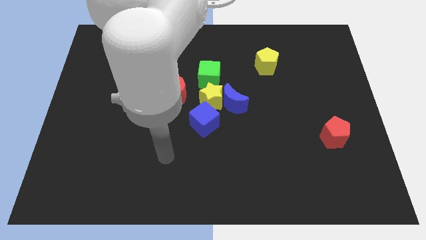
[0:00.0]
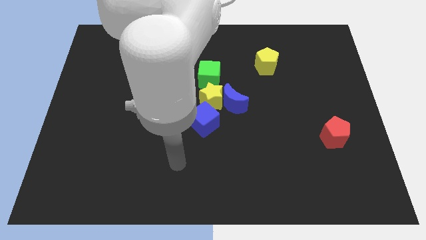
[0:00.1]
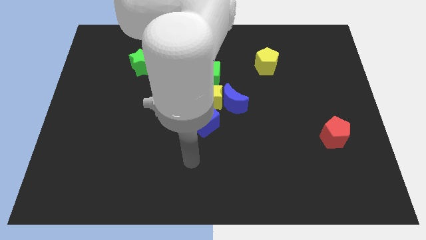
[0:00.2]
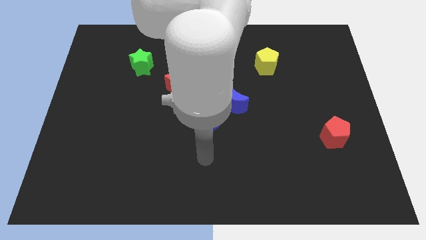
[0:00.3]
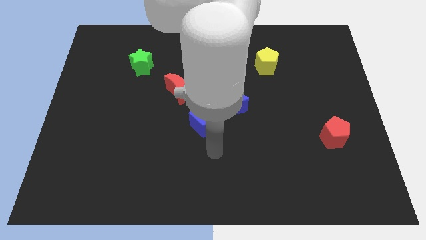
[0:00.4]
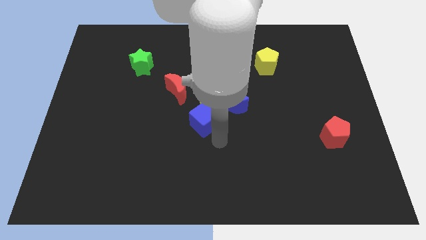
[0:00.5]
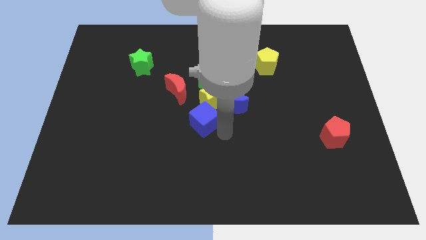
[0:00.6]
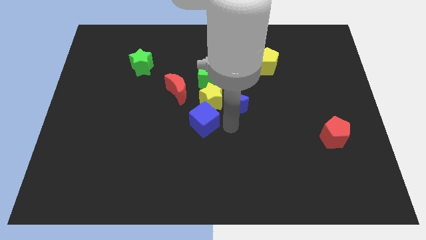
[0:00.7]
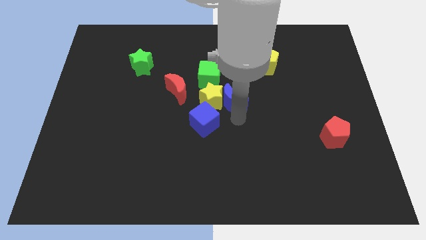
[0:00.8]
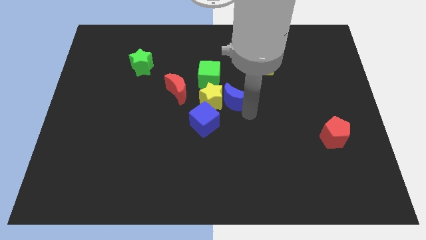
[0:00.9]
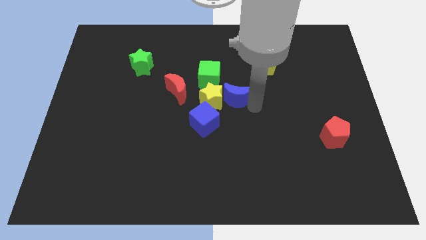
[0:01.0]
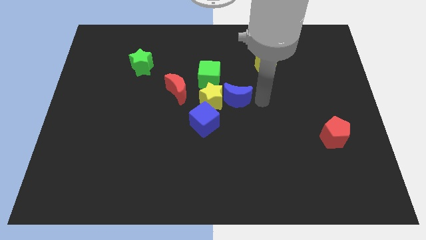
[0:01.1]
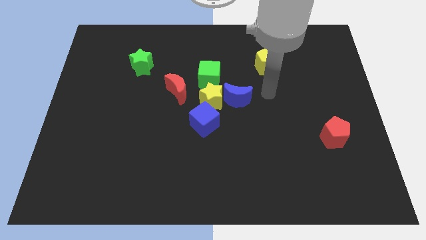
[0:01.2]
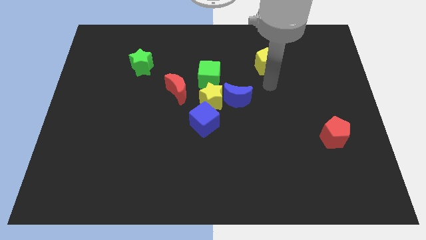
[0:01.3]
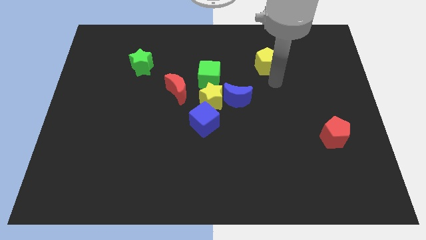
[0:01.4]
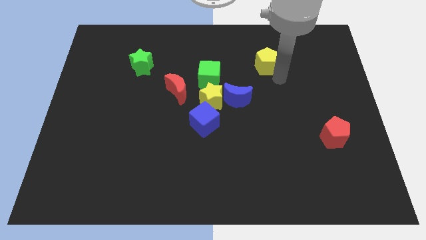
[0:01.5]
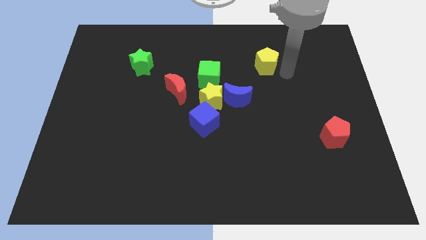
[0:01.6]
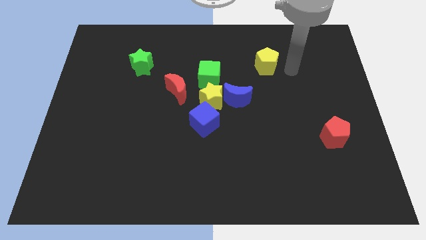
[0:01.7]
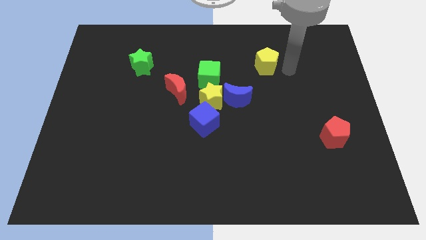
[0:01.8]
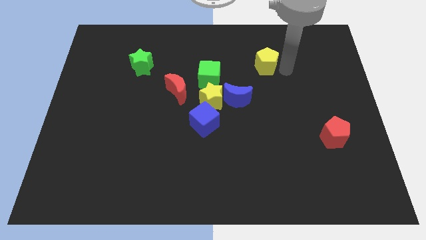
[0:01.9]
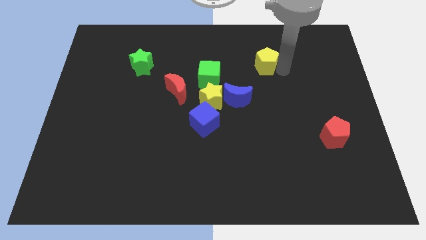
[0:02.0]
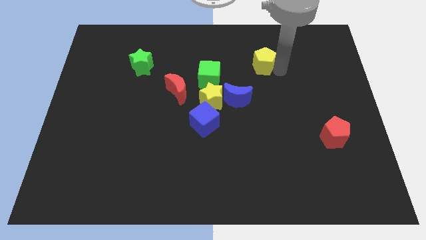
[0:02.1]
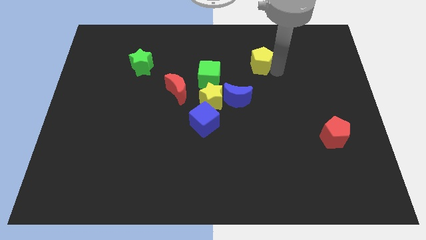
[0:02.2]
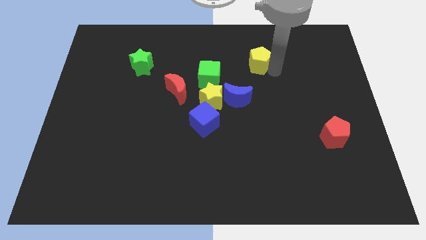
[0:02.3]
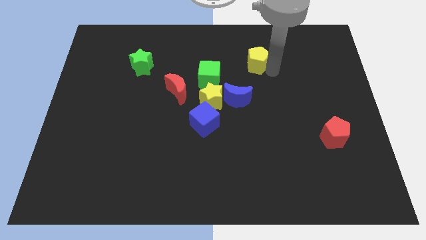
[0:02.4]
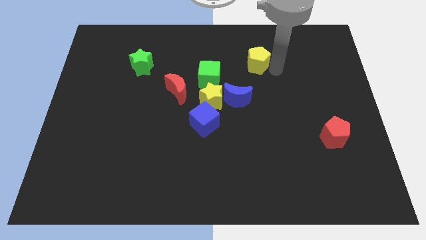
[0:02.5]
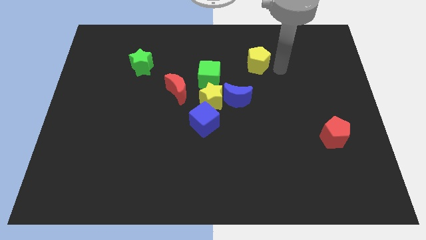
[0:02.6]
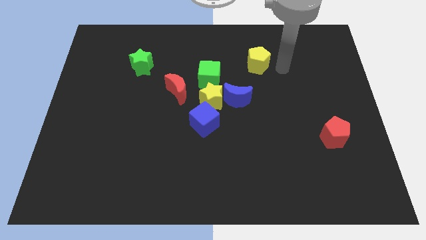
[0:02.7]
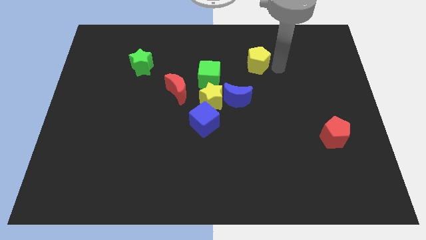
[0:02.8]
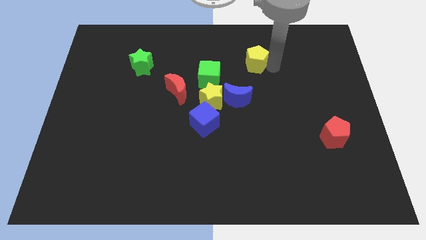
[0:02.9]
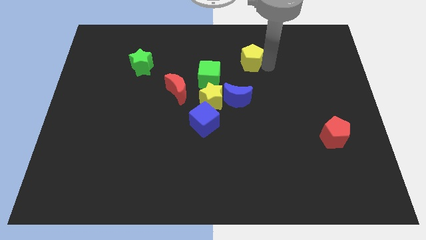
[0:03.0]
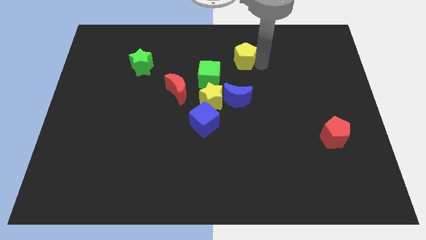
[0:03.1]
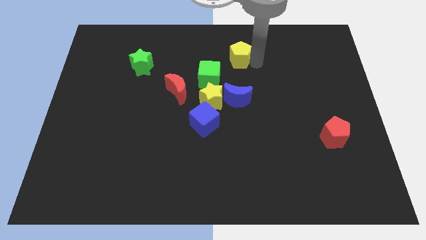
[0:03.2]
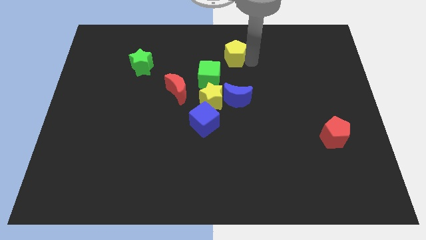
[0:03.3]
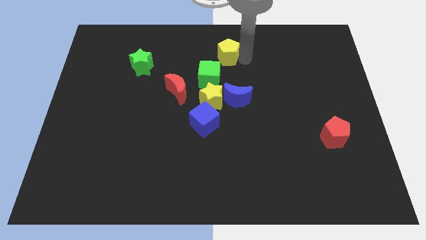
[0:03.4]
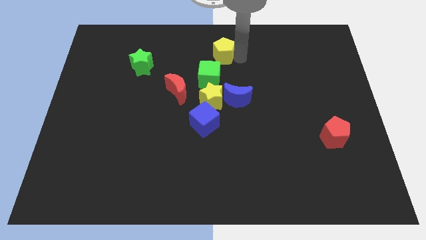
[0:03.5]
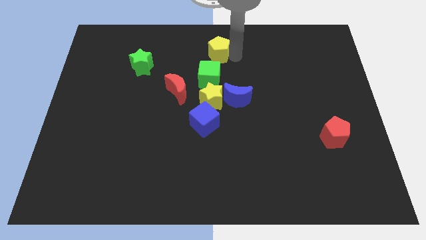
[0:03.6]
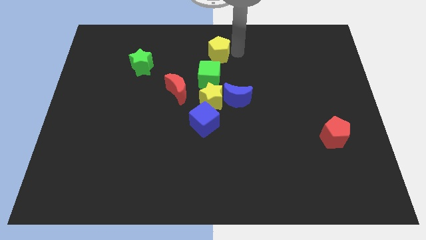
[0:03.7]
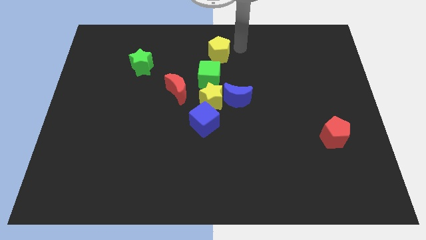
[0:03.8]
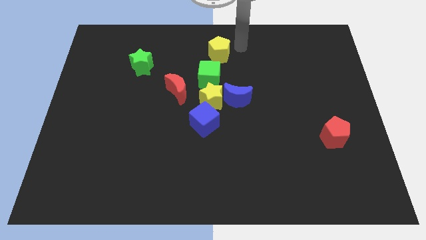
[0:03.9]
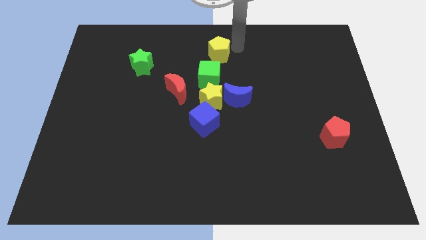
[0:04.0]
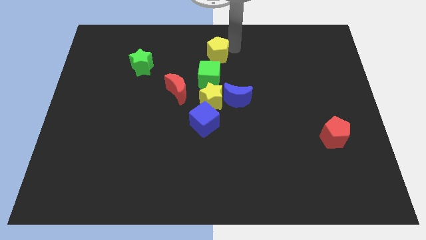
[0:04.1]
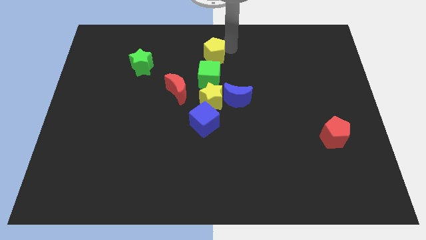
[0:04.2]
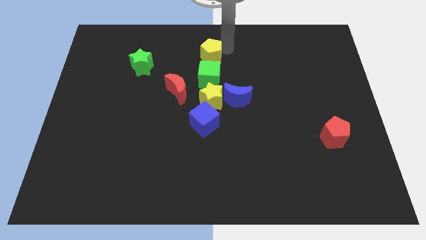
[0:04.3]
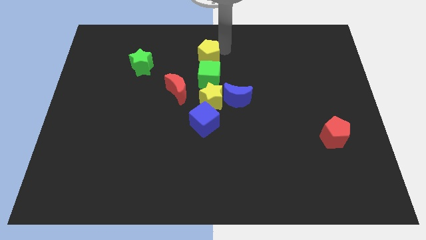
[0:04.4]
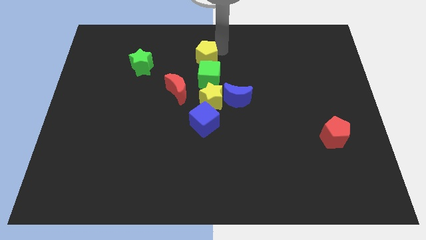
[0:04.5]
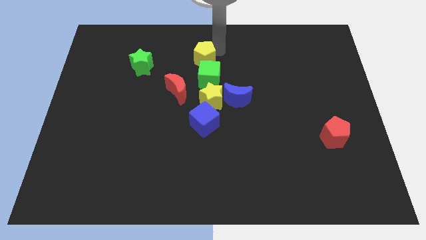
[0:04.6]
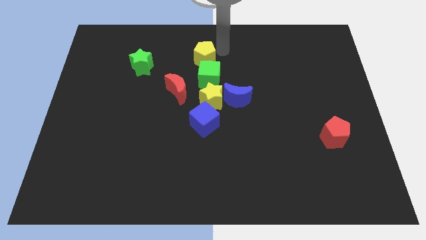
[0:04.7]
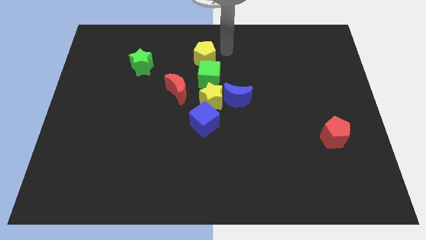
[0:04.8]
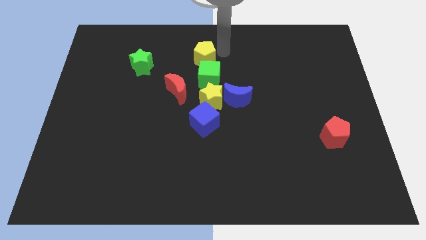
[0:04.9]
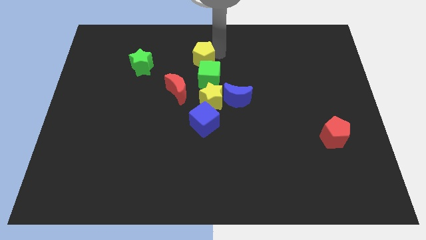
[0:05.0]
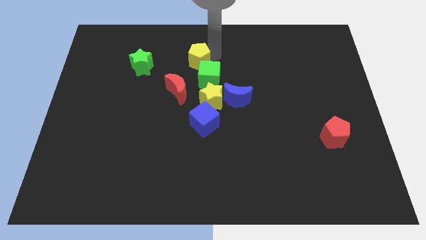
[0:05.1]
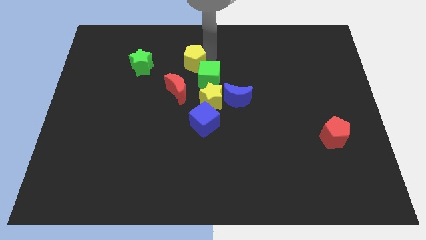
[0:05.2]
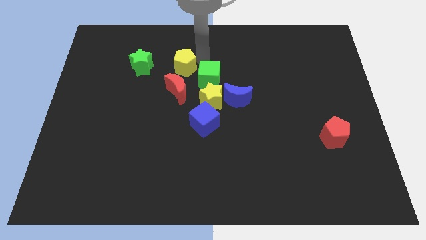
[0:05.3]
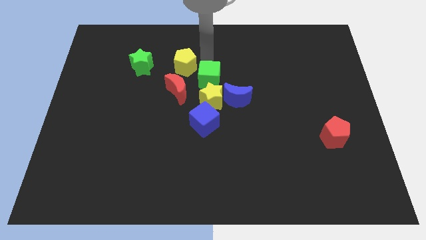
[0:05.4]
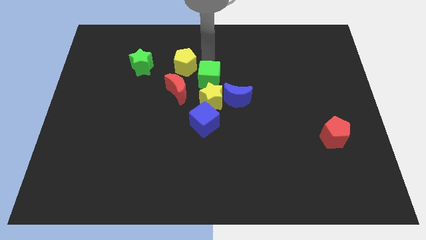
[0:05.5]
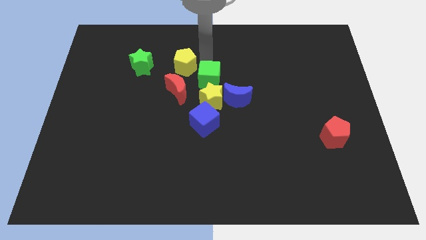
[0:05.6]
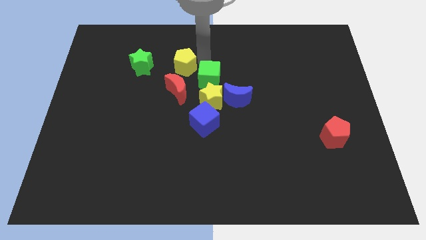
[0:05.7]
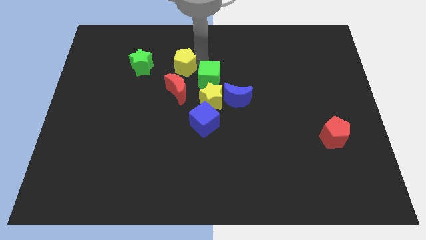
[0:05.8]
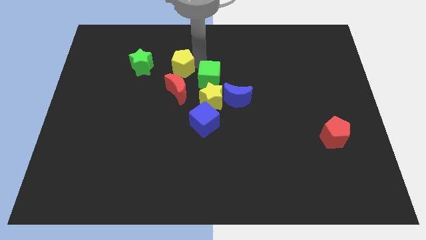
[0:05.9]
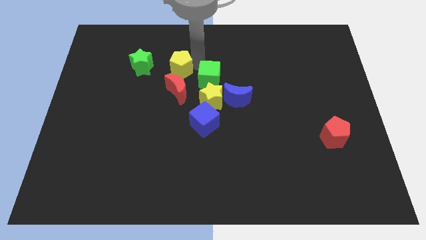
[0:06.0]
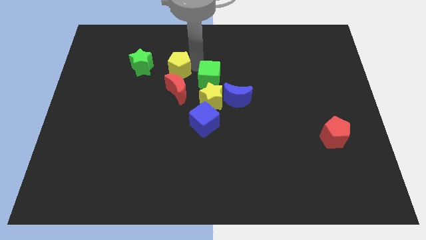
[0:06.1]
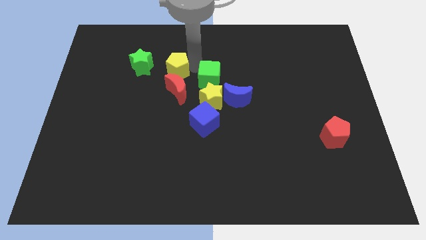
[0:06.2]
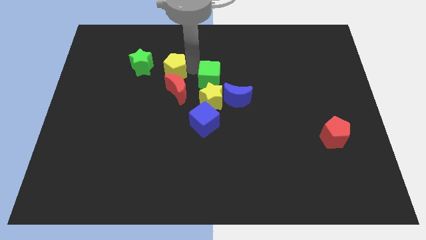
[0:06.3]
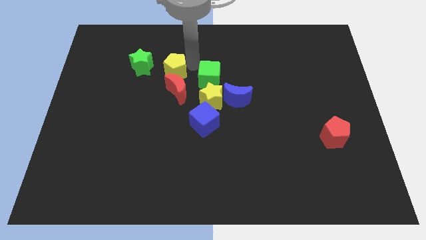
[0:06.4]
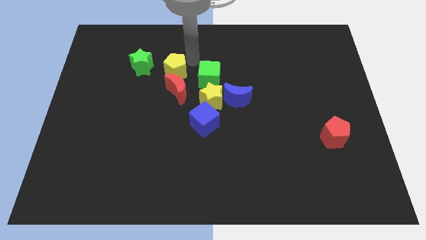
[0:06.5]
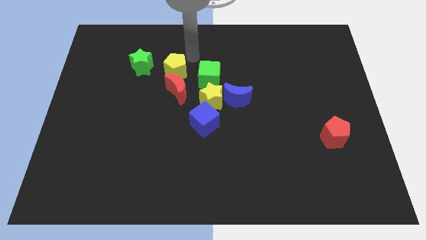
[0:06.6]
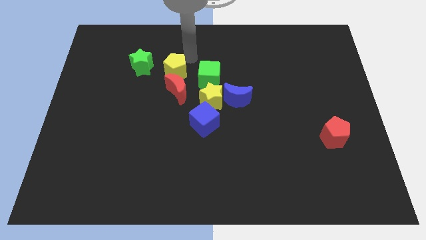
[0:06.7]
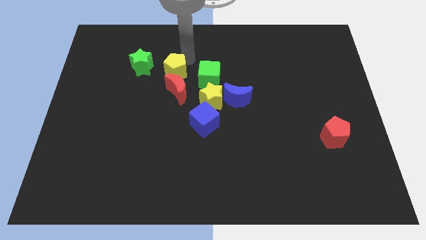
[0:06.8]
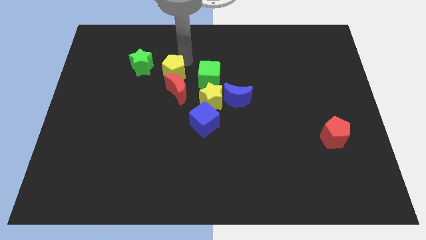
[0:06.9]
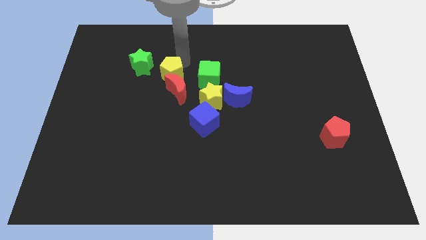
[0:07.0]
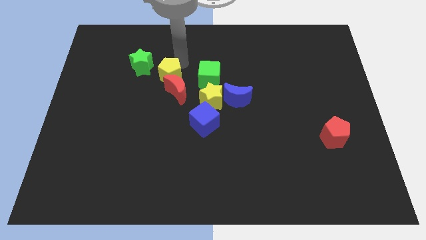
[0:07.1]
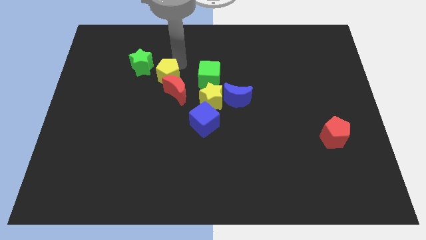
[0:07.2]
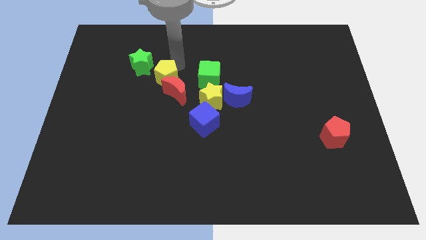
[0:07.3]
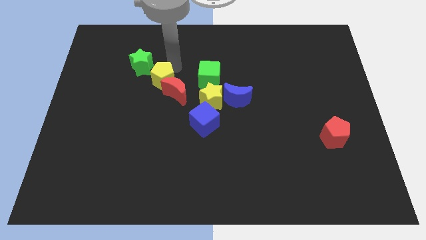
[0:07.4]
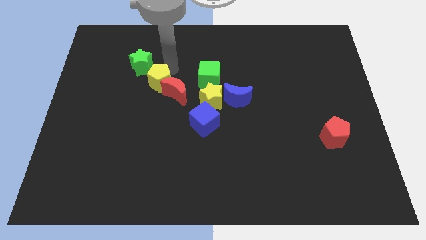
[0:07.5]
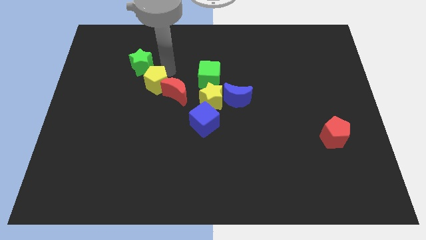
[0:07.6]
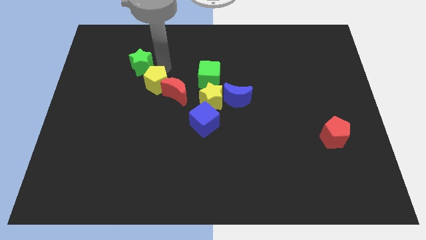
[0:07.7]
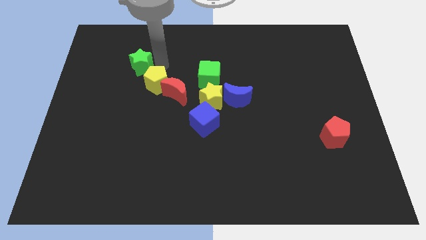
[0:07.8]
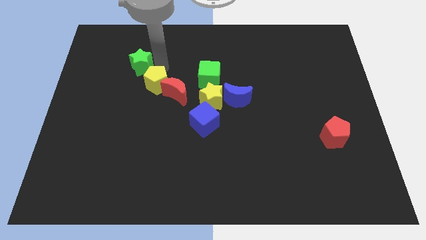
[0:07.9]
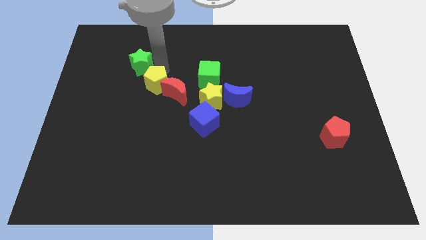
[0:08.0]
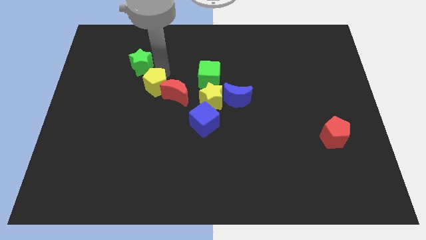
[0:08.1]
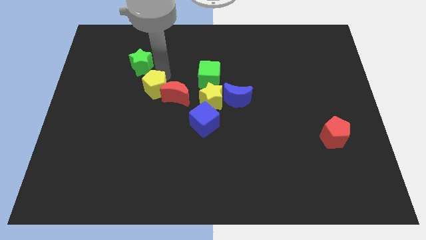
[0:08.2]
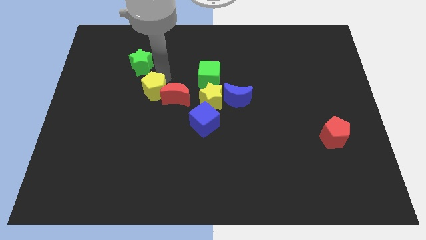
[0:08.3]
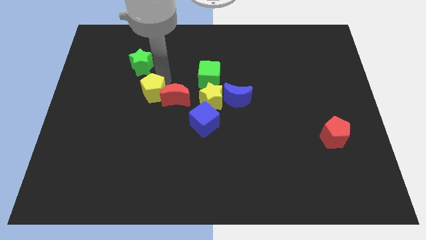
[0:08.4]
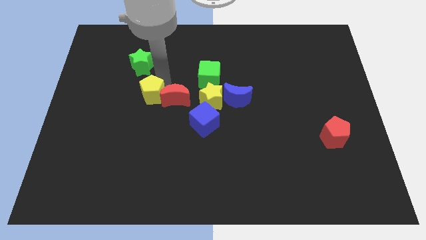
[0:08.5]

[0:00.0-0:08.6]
slide the yellow pentagon to the bottom left of the red moon
